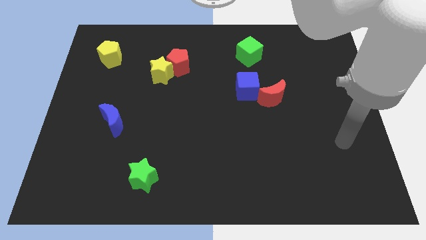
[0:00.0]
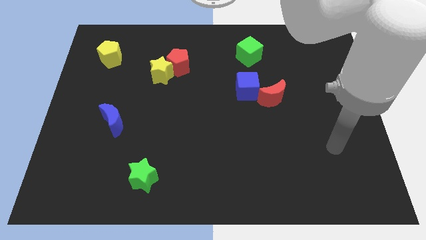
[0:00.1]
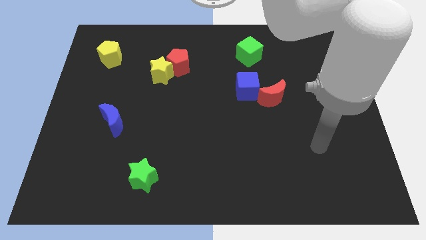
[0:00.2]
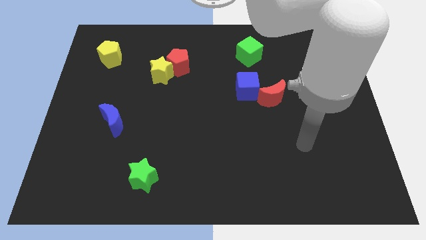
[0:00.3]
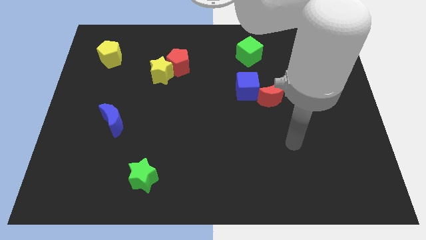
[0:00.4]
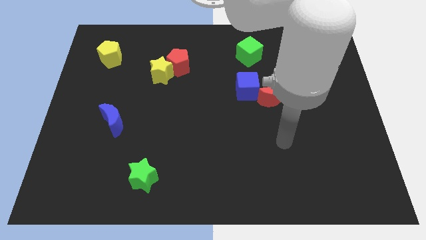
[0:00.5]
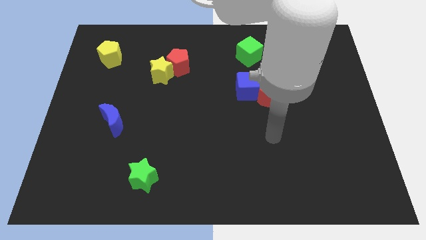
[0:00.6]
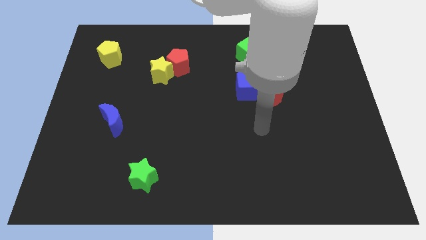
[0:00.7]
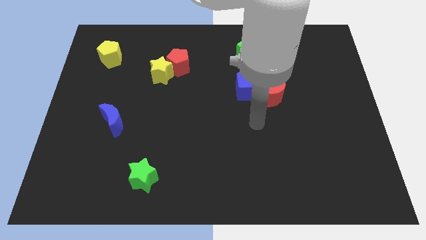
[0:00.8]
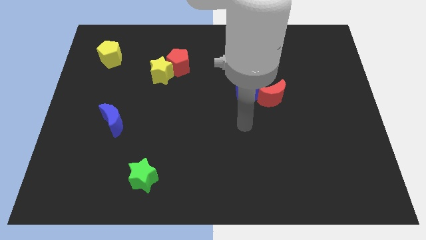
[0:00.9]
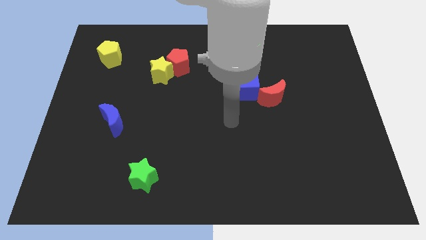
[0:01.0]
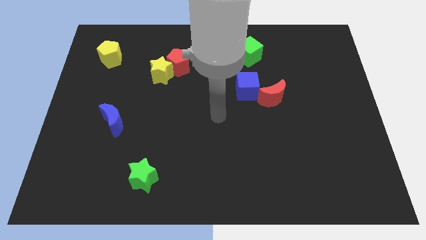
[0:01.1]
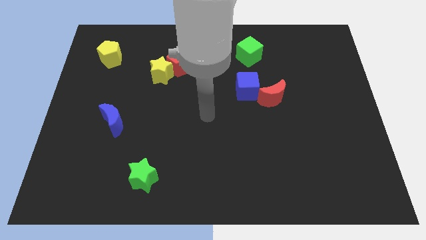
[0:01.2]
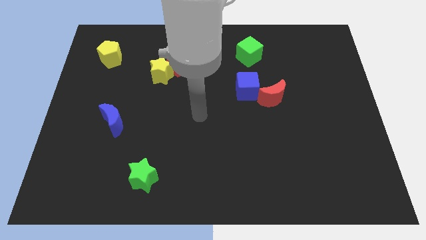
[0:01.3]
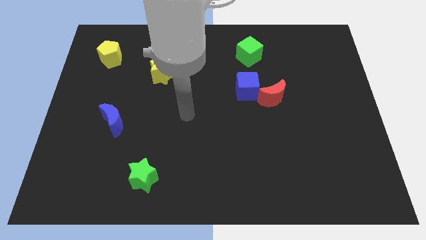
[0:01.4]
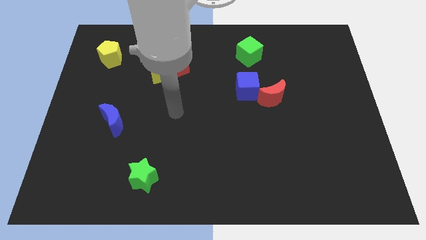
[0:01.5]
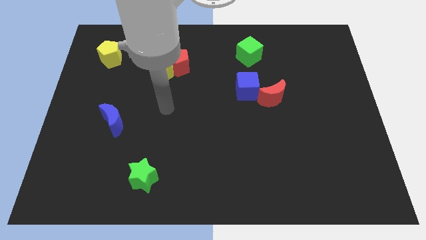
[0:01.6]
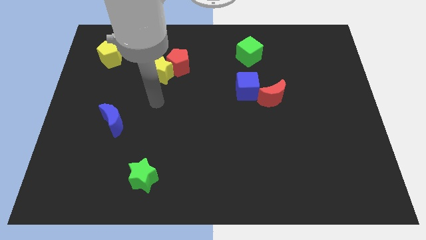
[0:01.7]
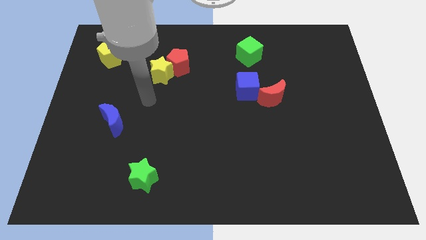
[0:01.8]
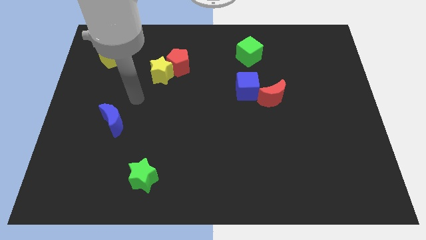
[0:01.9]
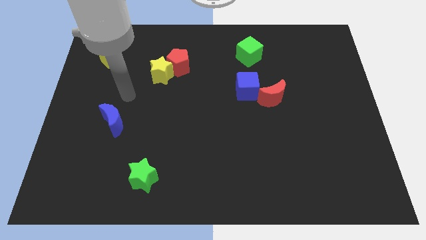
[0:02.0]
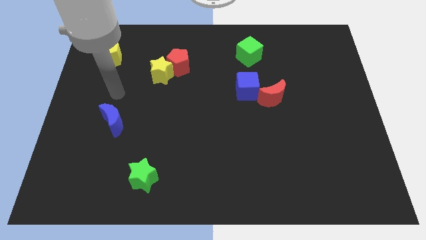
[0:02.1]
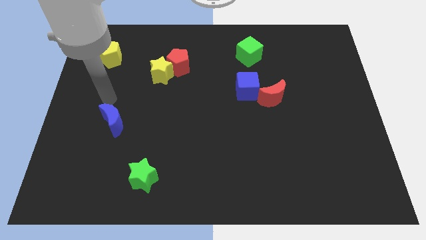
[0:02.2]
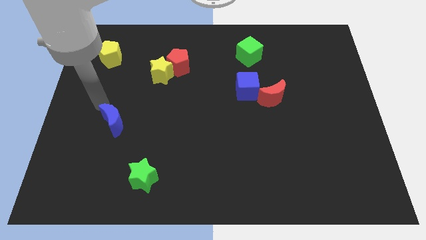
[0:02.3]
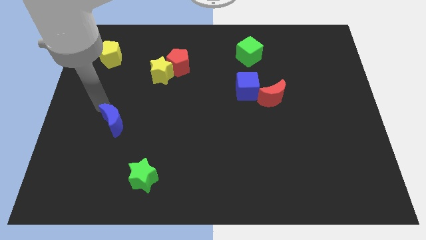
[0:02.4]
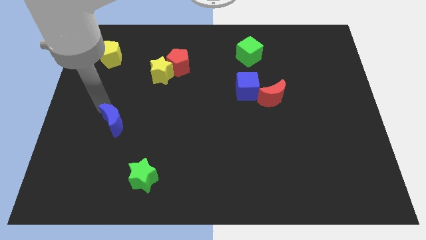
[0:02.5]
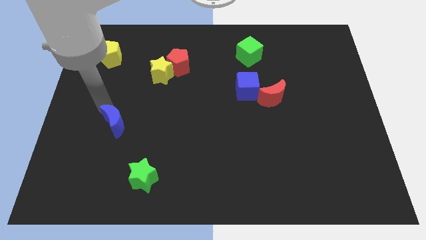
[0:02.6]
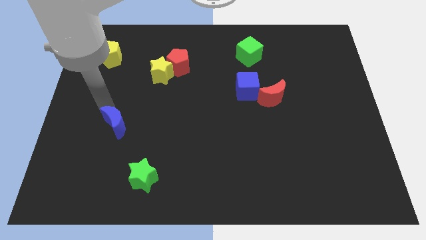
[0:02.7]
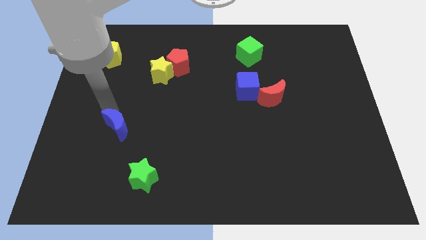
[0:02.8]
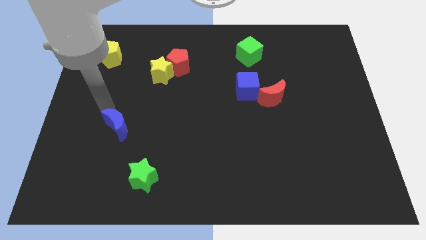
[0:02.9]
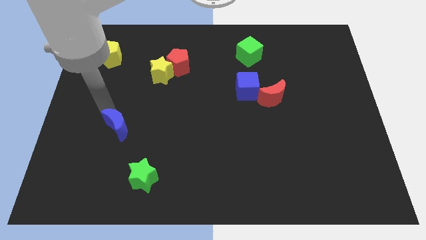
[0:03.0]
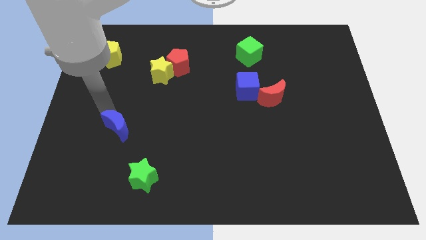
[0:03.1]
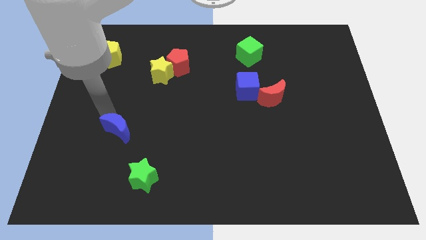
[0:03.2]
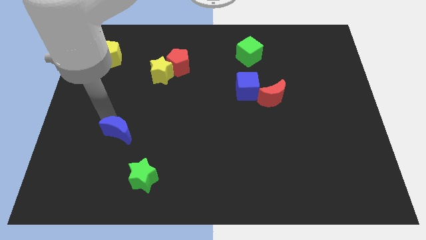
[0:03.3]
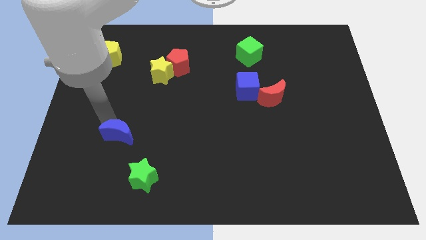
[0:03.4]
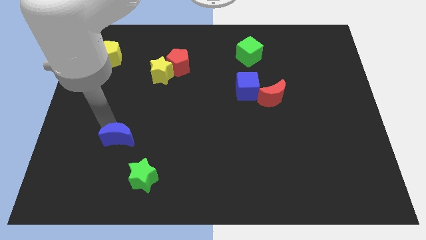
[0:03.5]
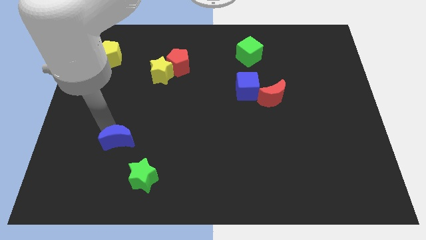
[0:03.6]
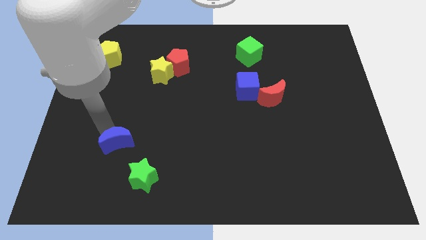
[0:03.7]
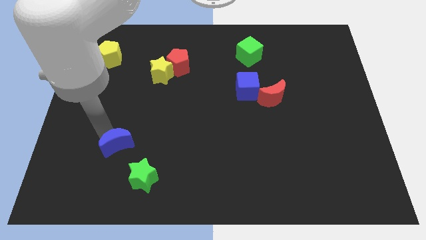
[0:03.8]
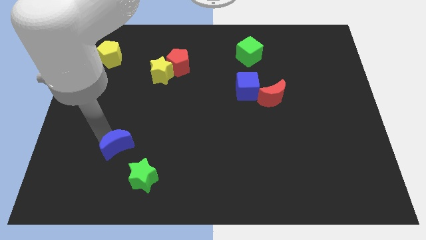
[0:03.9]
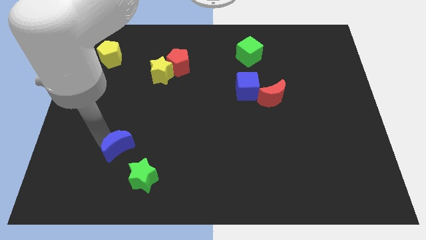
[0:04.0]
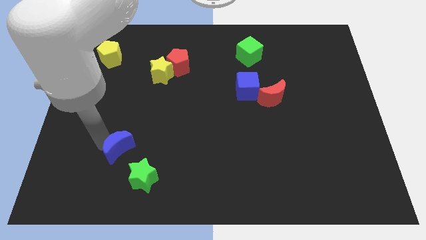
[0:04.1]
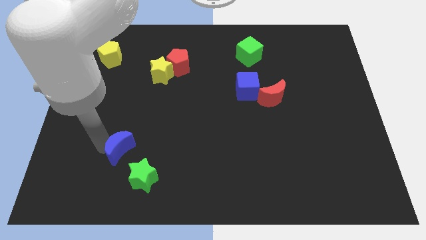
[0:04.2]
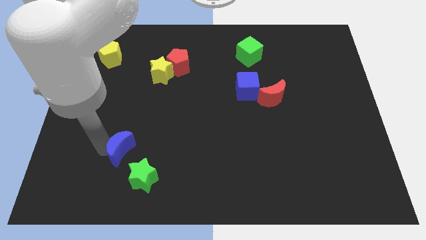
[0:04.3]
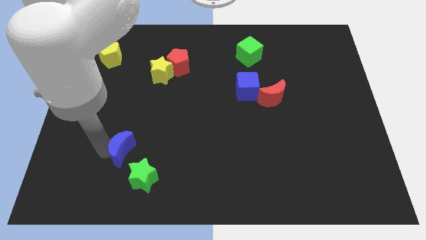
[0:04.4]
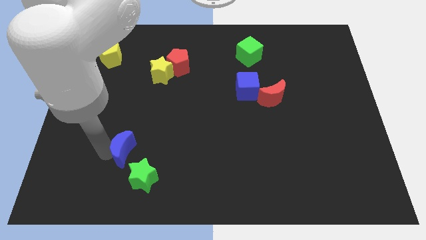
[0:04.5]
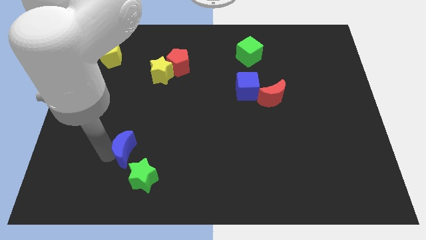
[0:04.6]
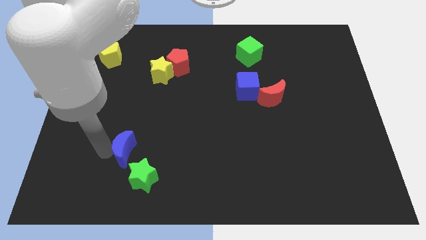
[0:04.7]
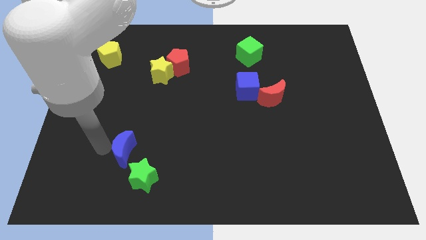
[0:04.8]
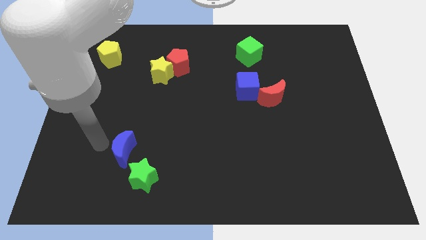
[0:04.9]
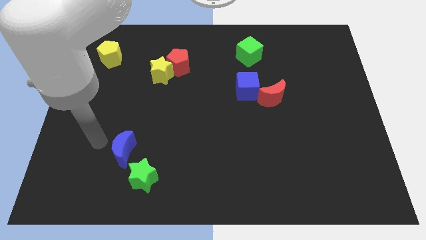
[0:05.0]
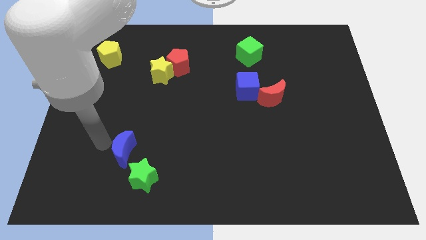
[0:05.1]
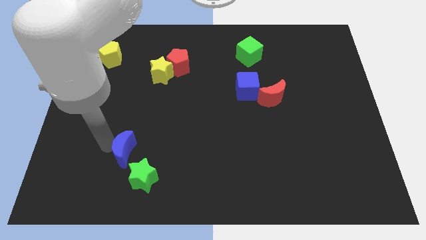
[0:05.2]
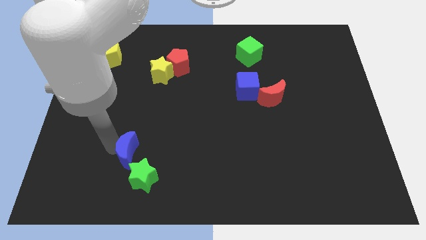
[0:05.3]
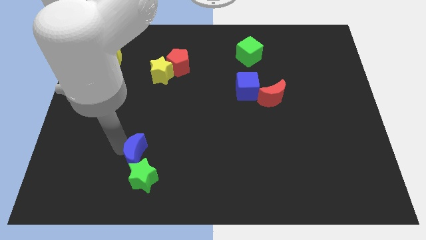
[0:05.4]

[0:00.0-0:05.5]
slide the blue moon to the green star

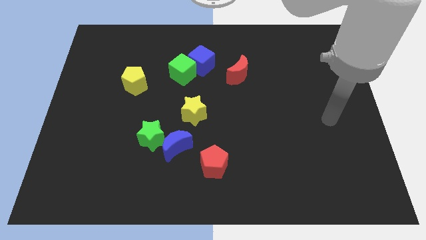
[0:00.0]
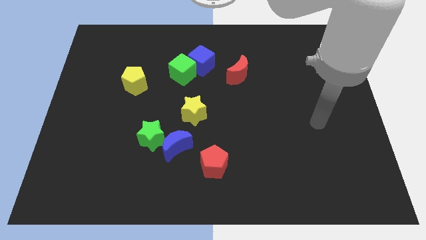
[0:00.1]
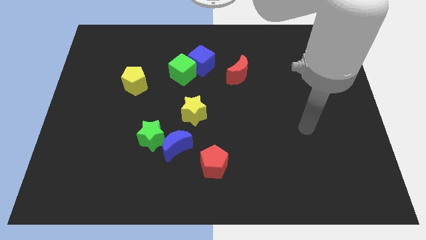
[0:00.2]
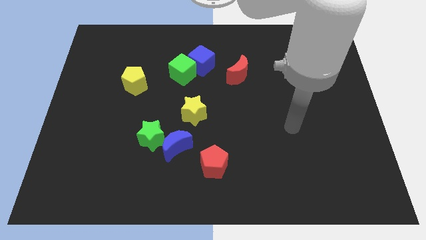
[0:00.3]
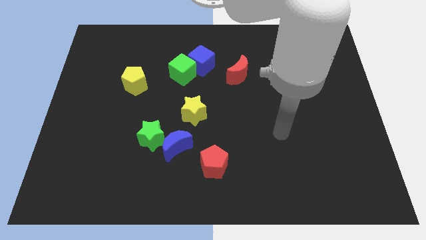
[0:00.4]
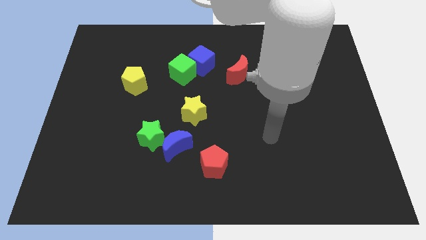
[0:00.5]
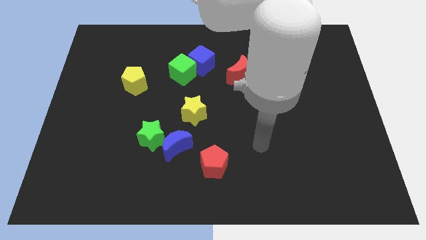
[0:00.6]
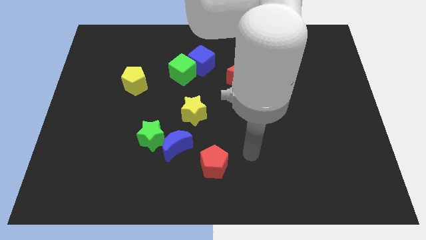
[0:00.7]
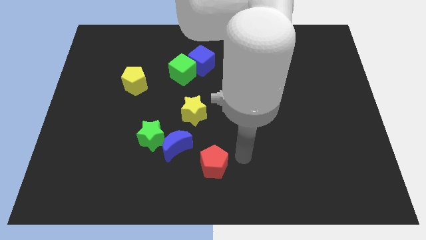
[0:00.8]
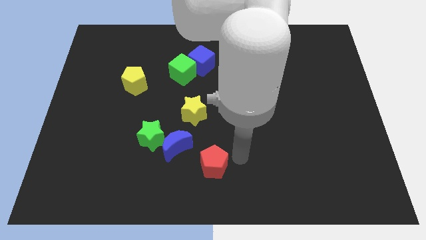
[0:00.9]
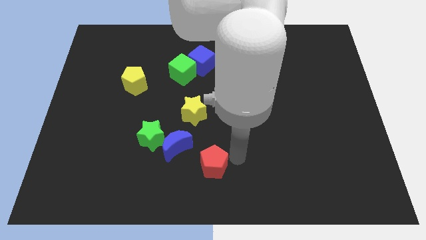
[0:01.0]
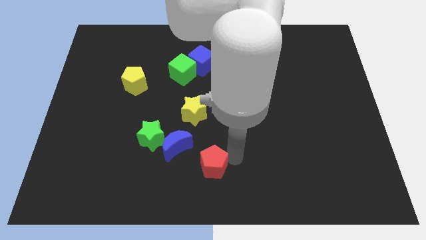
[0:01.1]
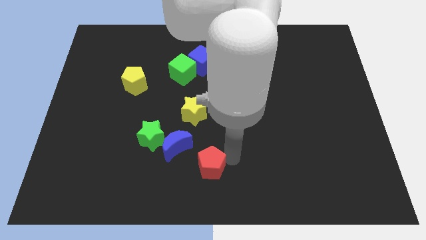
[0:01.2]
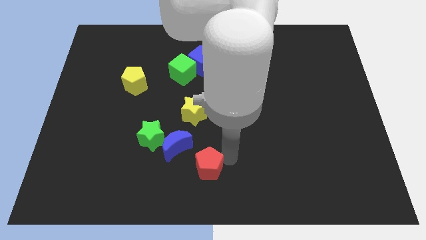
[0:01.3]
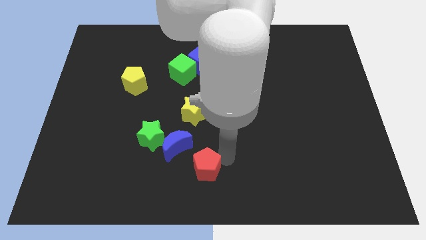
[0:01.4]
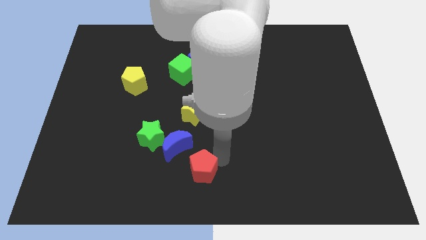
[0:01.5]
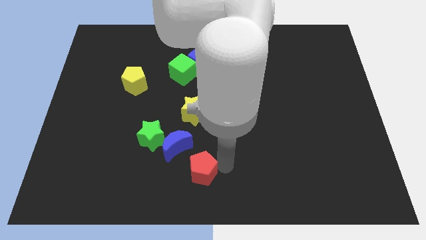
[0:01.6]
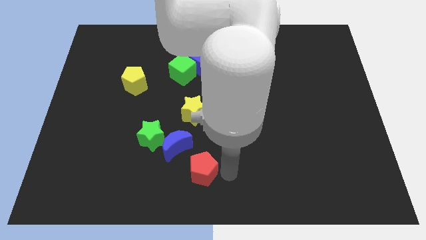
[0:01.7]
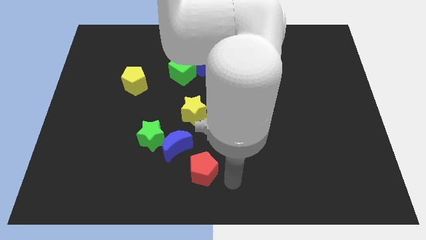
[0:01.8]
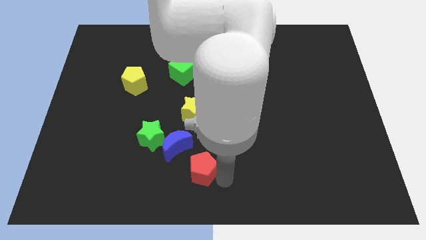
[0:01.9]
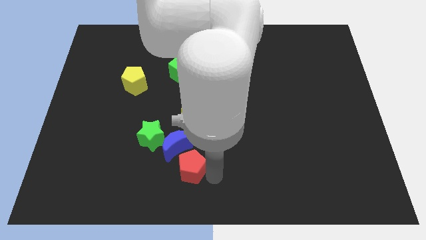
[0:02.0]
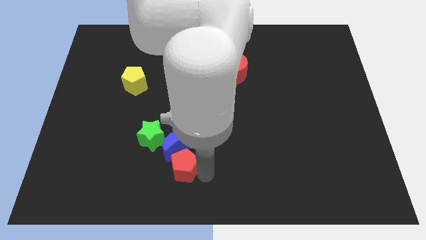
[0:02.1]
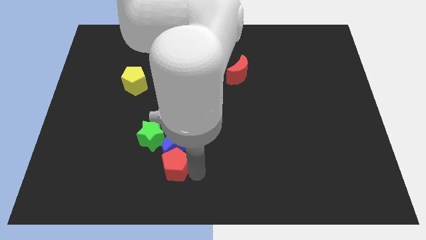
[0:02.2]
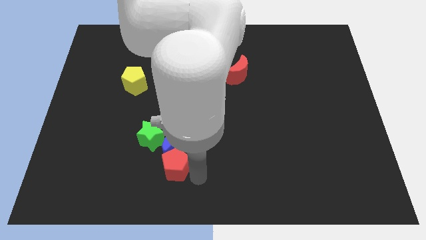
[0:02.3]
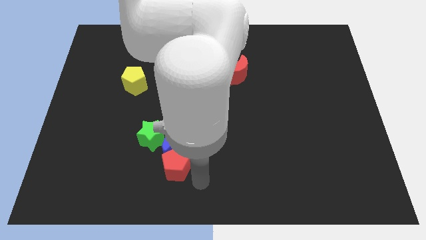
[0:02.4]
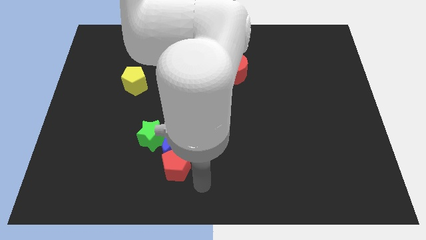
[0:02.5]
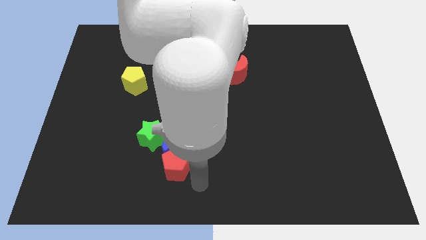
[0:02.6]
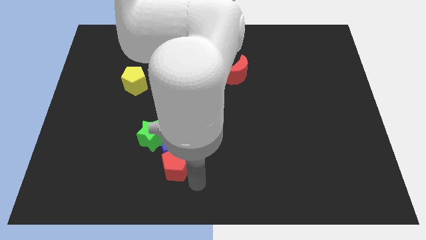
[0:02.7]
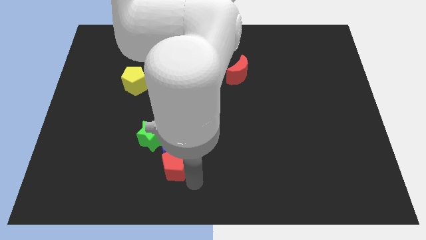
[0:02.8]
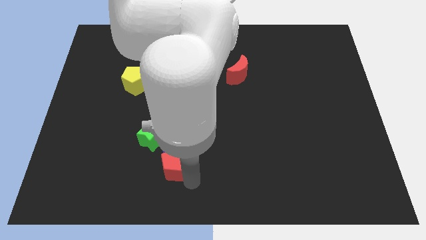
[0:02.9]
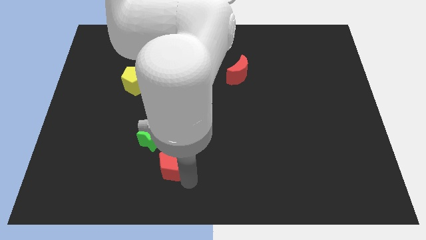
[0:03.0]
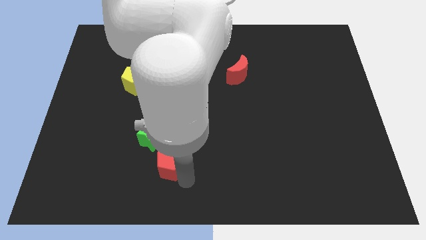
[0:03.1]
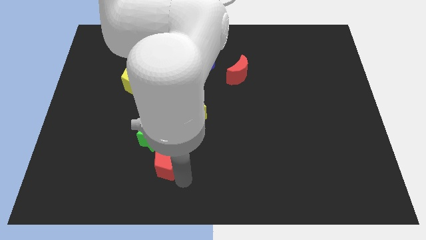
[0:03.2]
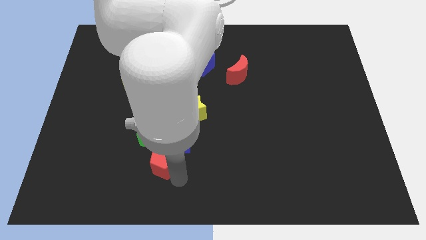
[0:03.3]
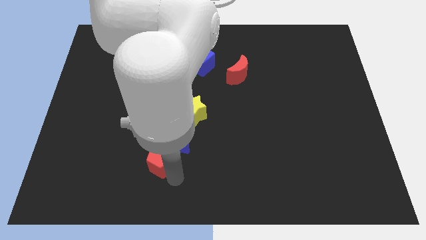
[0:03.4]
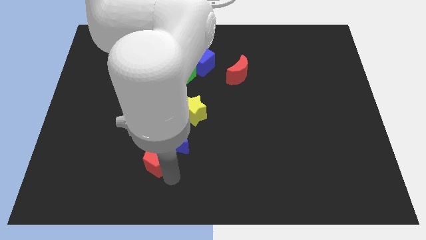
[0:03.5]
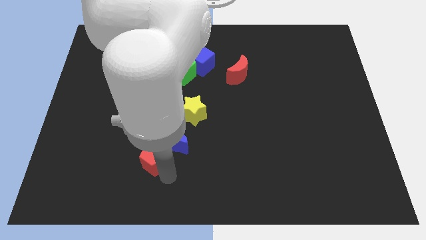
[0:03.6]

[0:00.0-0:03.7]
move the red pentagon close to the green star
